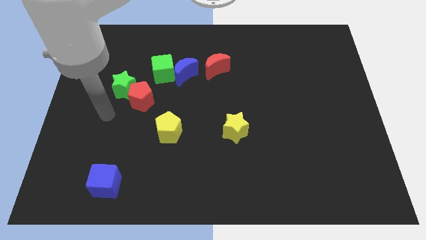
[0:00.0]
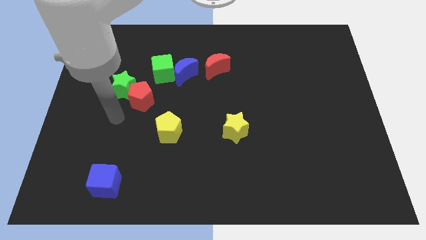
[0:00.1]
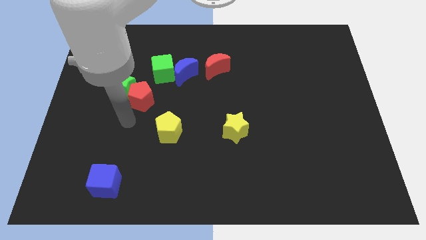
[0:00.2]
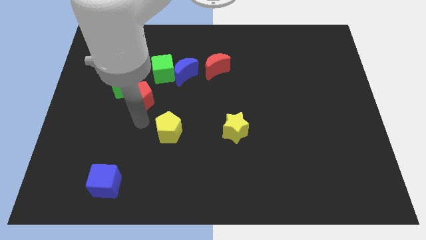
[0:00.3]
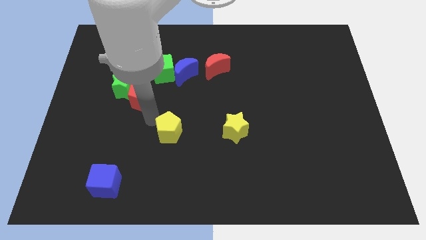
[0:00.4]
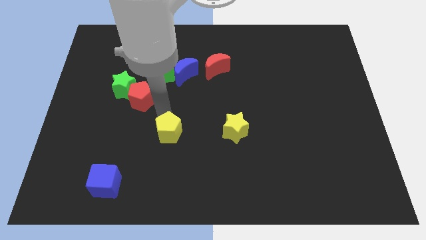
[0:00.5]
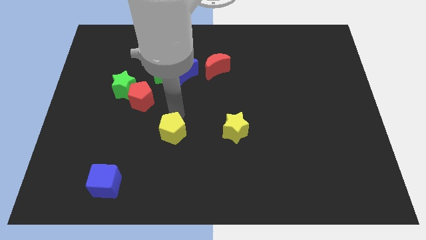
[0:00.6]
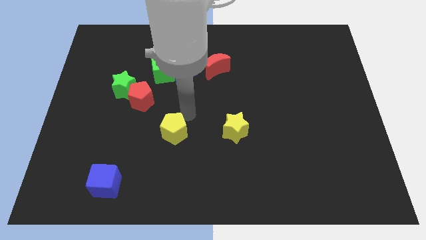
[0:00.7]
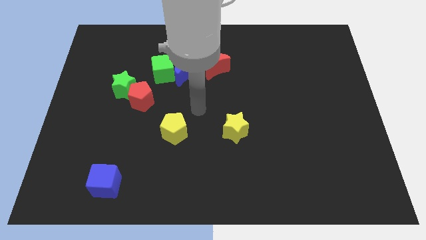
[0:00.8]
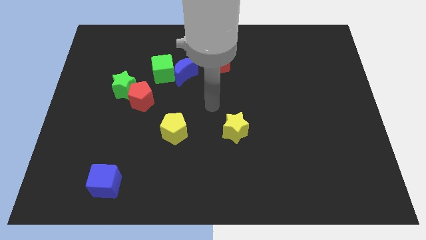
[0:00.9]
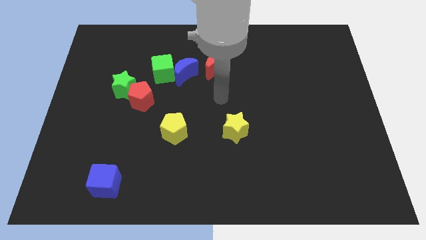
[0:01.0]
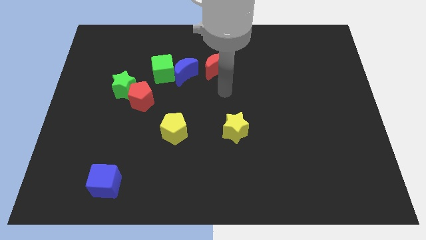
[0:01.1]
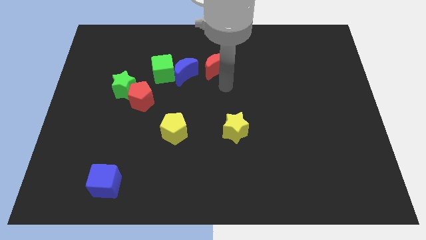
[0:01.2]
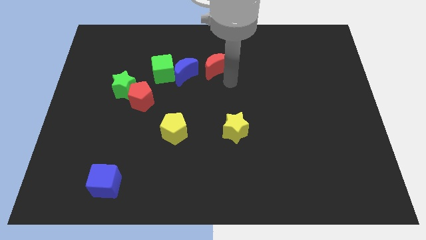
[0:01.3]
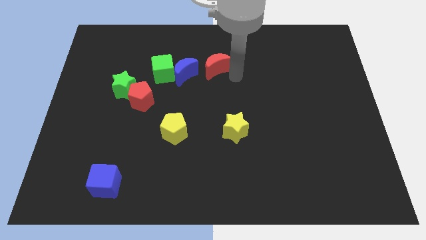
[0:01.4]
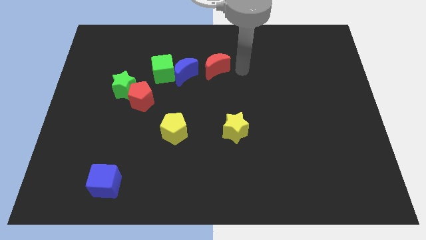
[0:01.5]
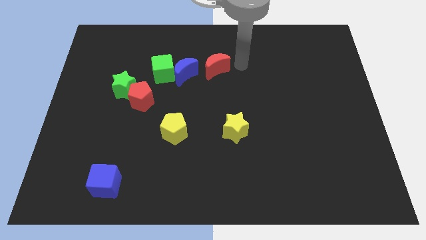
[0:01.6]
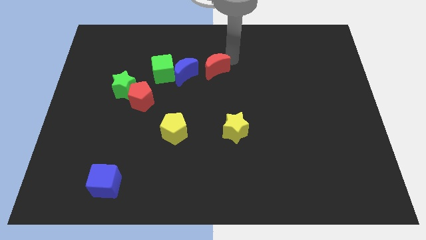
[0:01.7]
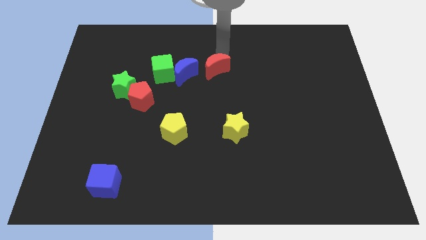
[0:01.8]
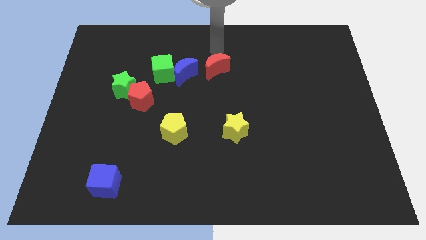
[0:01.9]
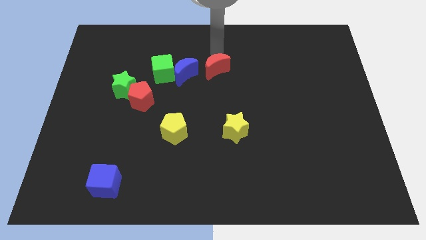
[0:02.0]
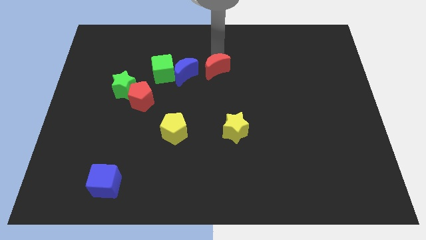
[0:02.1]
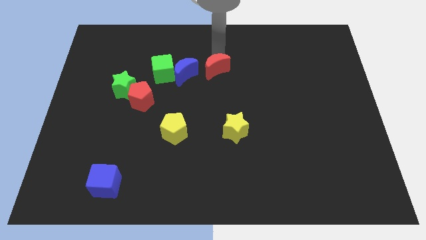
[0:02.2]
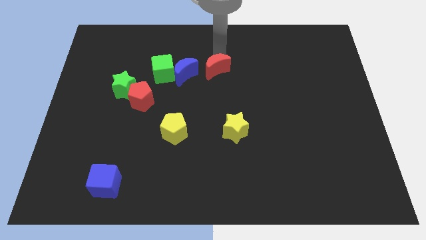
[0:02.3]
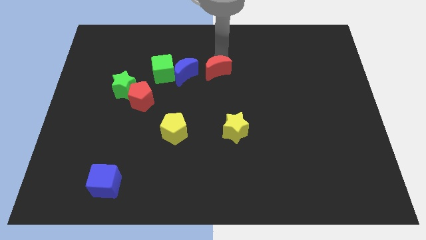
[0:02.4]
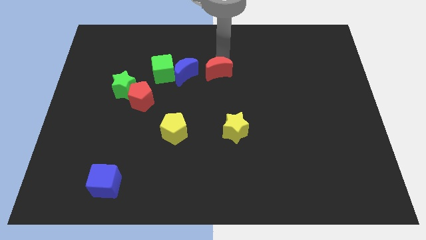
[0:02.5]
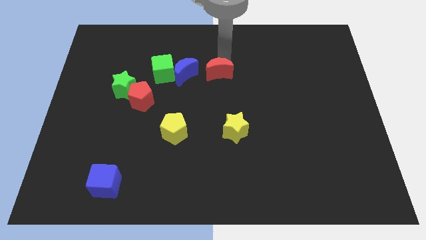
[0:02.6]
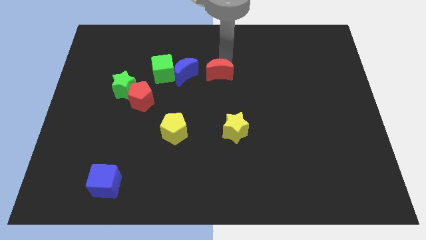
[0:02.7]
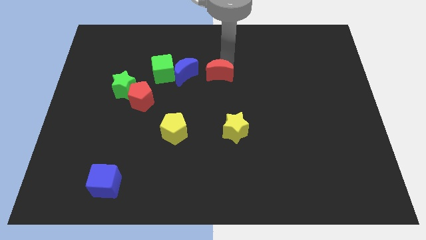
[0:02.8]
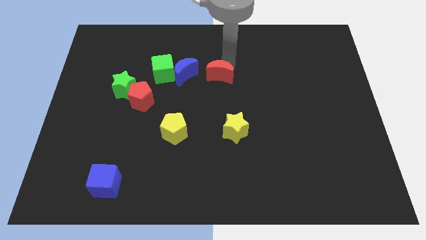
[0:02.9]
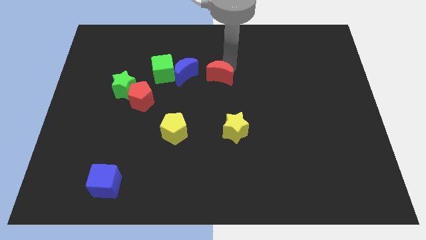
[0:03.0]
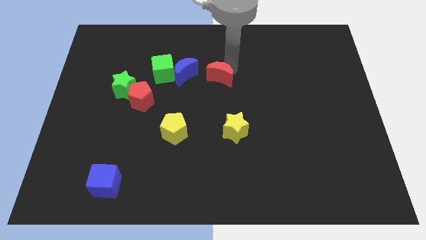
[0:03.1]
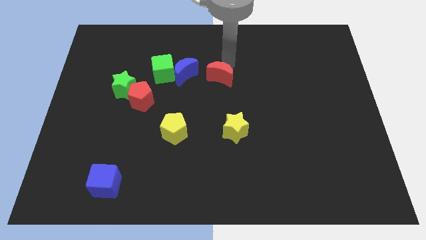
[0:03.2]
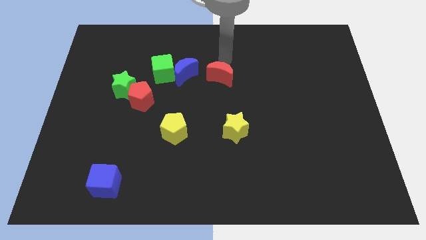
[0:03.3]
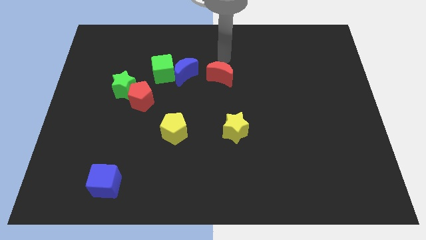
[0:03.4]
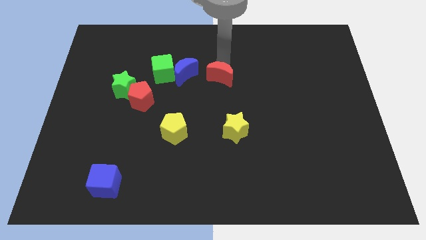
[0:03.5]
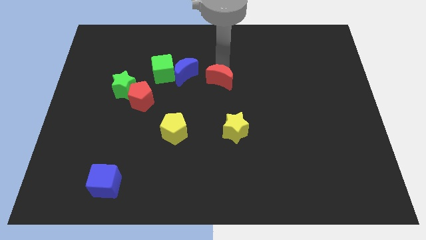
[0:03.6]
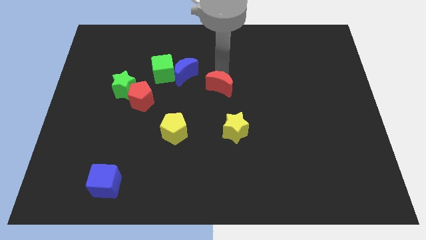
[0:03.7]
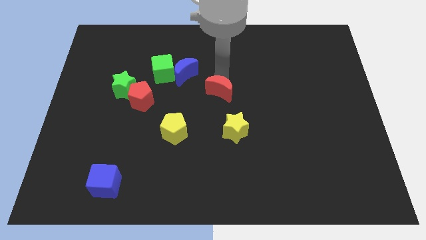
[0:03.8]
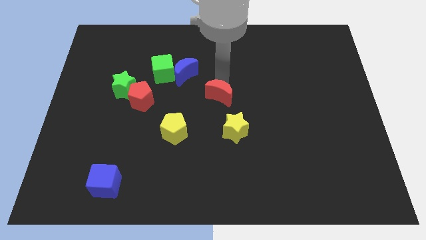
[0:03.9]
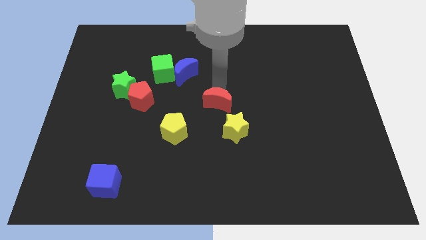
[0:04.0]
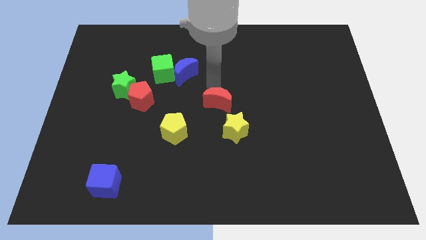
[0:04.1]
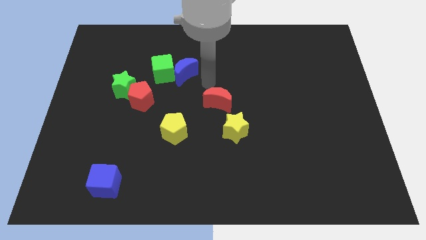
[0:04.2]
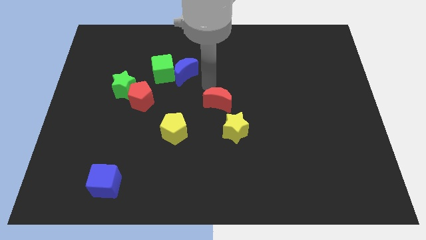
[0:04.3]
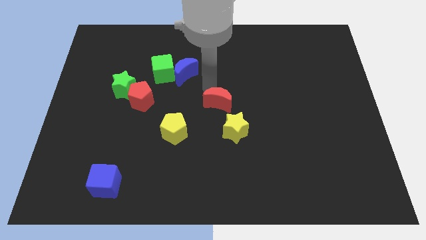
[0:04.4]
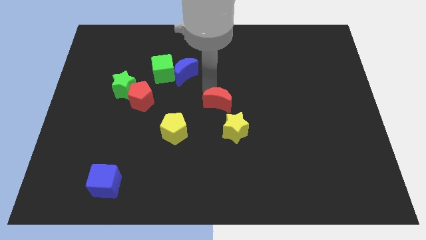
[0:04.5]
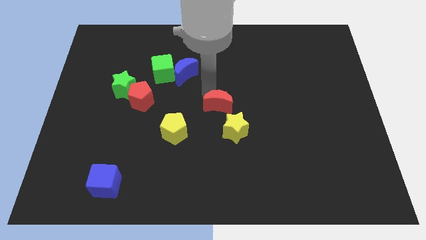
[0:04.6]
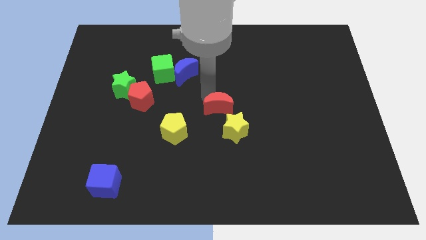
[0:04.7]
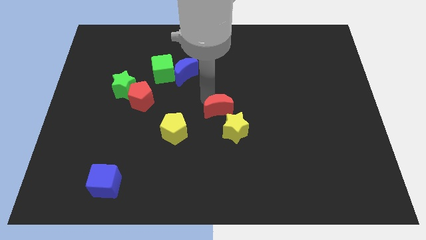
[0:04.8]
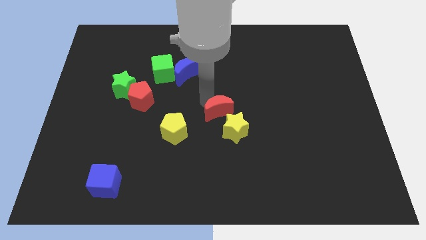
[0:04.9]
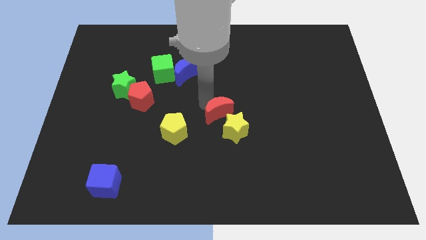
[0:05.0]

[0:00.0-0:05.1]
put the red moon towards the yellow star

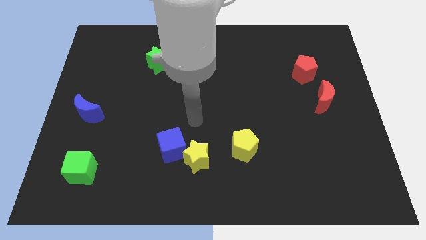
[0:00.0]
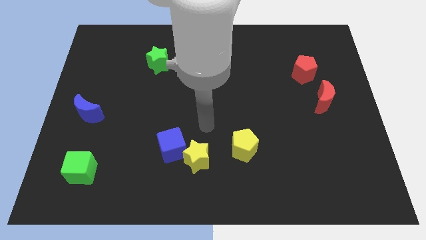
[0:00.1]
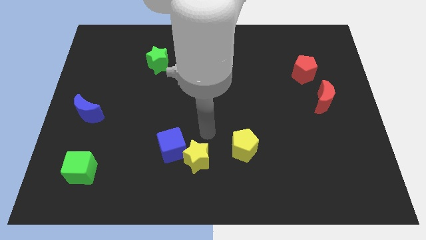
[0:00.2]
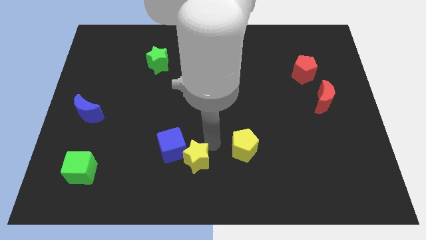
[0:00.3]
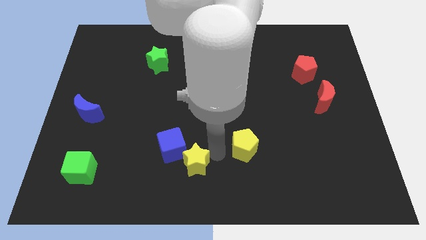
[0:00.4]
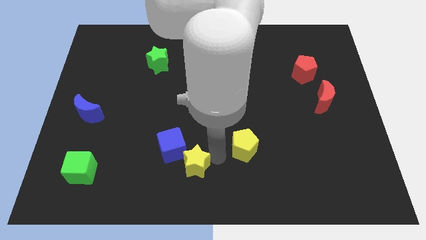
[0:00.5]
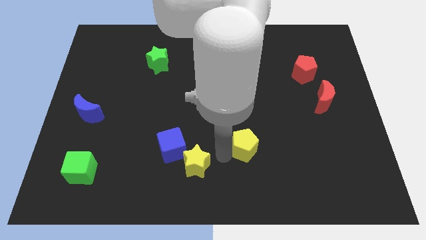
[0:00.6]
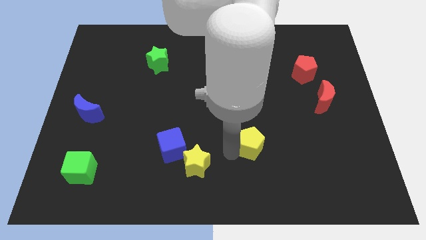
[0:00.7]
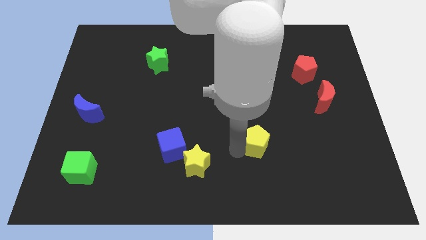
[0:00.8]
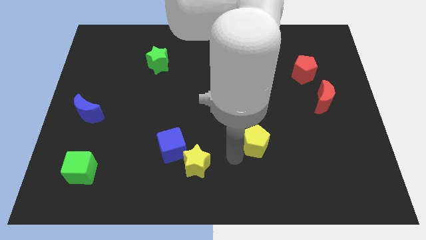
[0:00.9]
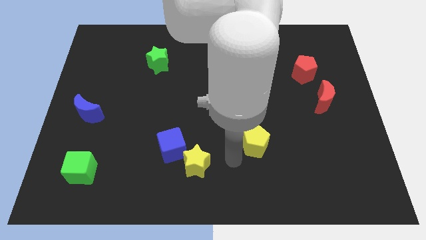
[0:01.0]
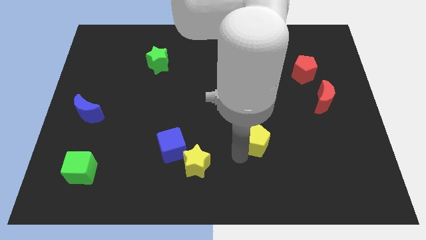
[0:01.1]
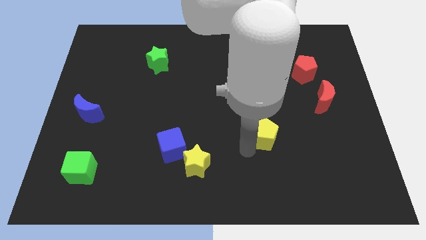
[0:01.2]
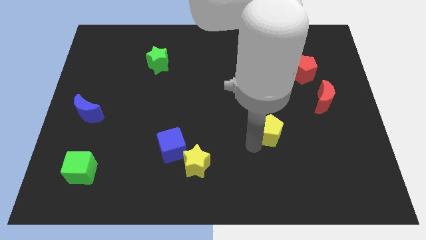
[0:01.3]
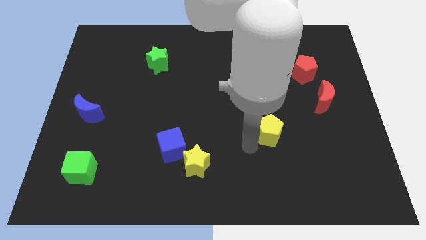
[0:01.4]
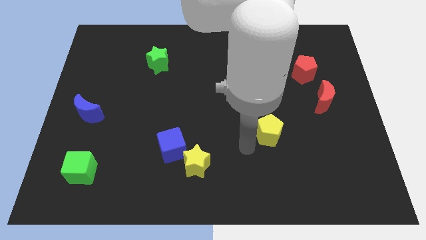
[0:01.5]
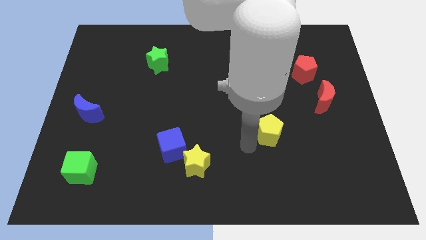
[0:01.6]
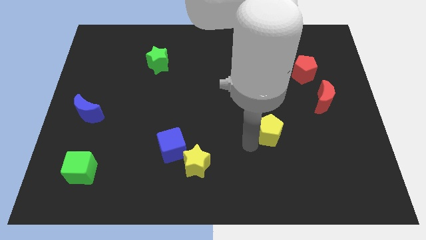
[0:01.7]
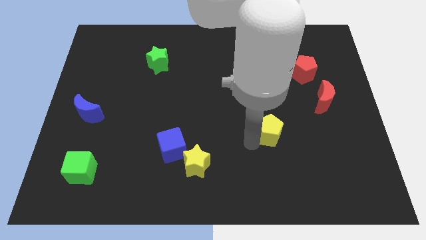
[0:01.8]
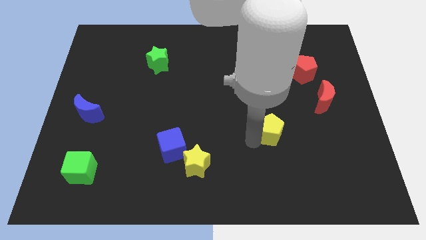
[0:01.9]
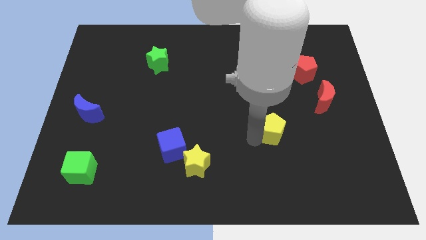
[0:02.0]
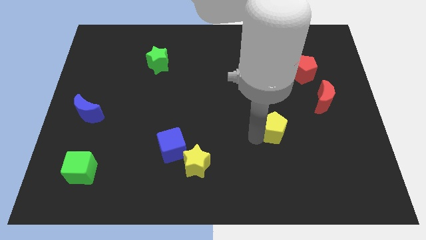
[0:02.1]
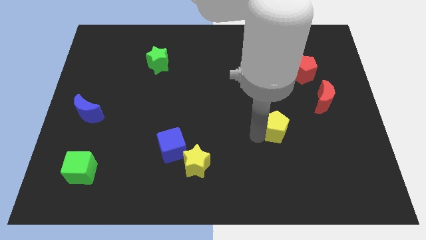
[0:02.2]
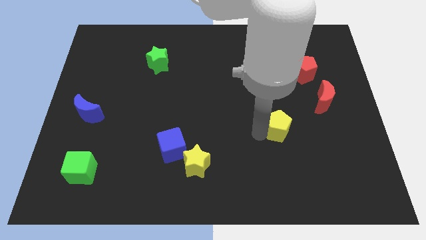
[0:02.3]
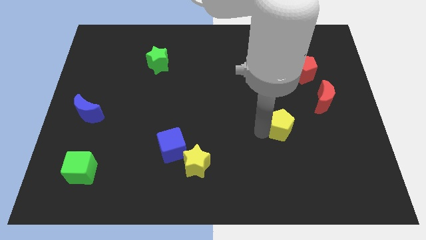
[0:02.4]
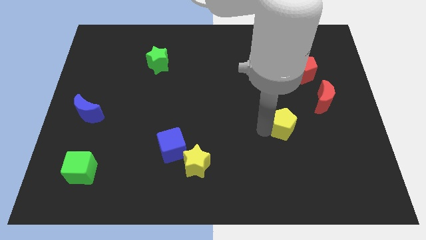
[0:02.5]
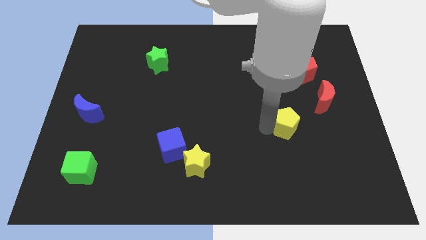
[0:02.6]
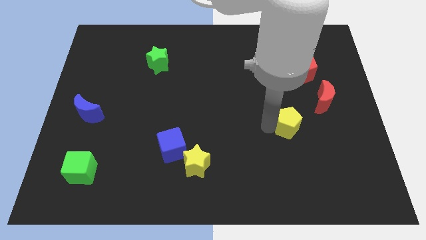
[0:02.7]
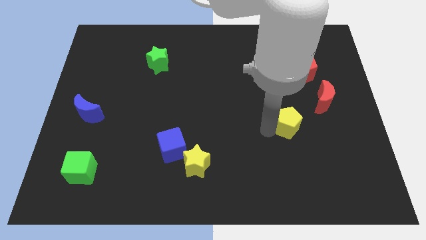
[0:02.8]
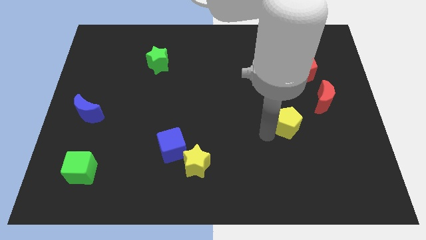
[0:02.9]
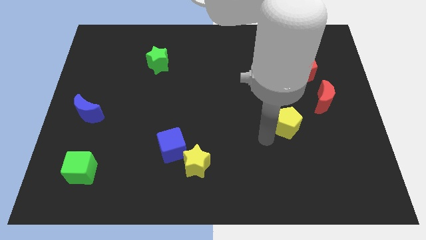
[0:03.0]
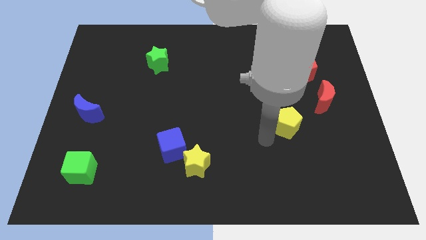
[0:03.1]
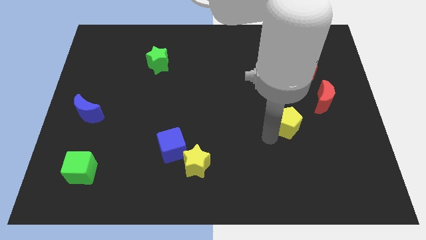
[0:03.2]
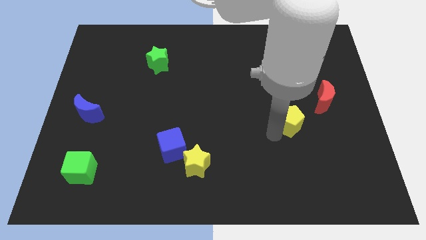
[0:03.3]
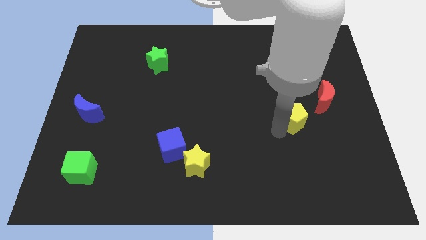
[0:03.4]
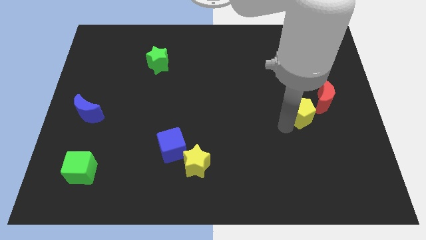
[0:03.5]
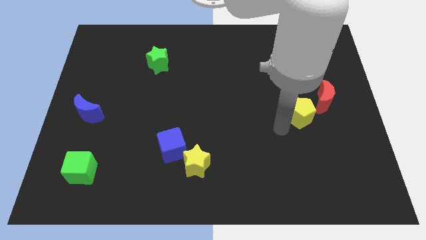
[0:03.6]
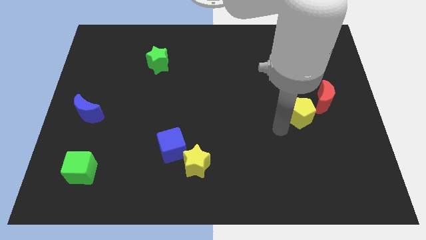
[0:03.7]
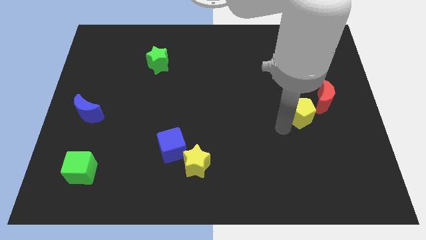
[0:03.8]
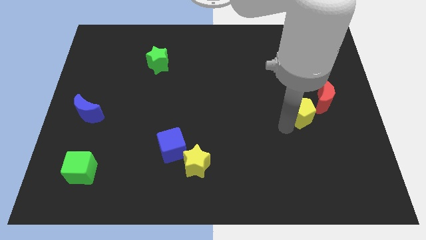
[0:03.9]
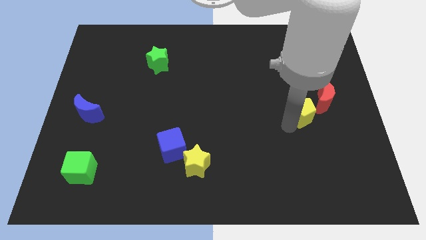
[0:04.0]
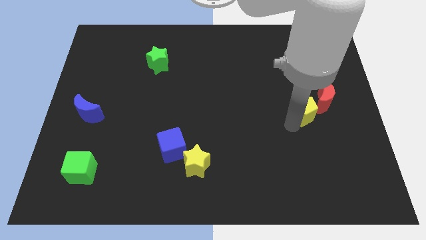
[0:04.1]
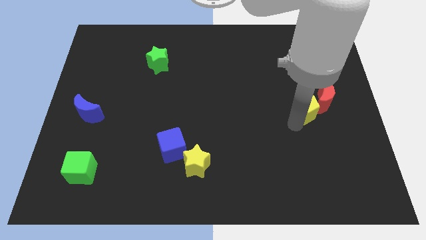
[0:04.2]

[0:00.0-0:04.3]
slide the yellow pentagon close to the red moon
